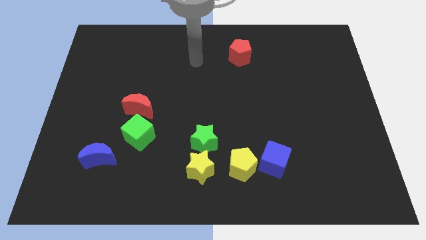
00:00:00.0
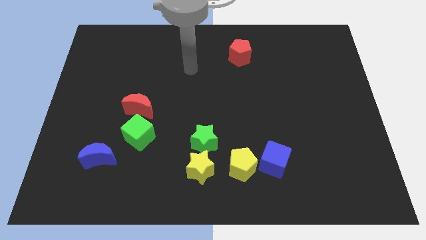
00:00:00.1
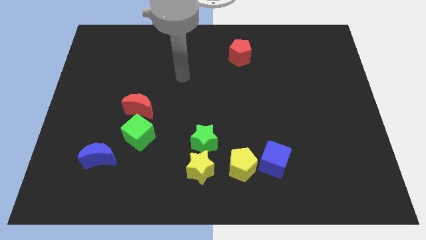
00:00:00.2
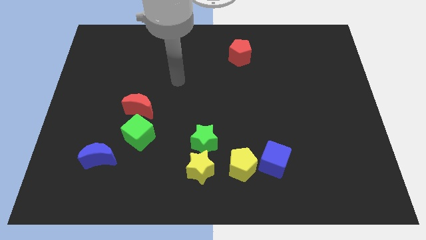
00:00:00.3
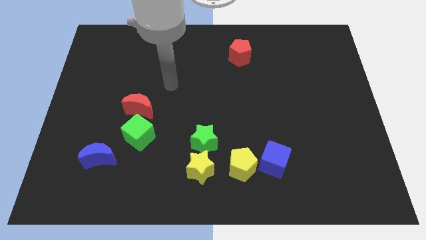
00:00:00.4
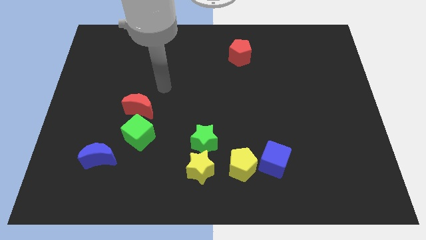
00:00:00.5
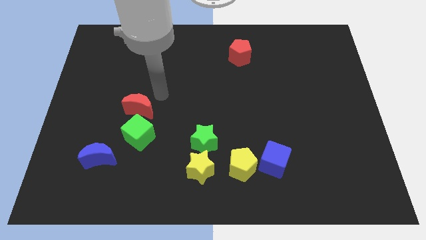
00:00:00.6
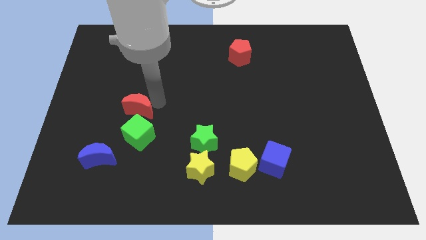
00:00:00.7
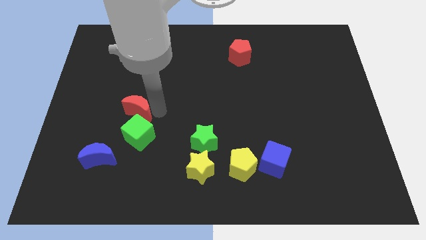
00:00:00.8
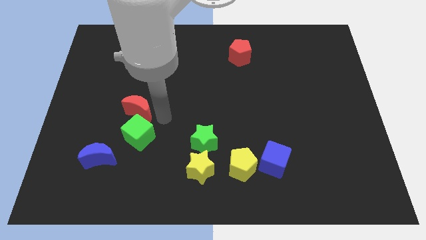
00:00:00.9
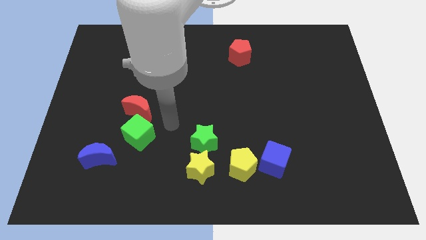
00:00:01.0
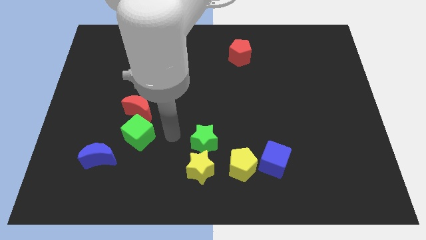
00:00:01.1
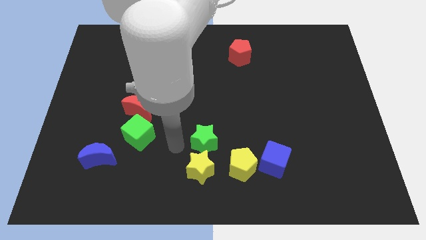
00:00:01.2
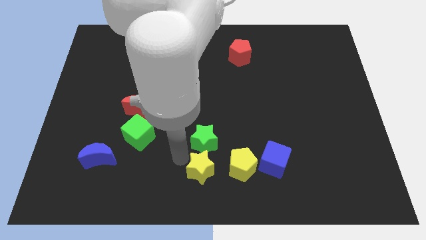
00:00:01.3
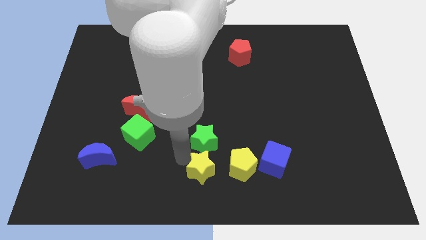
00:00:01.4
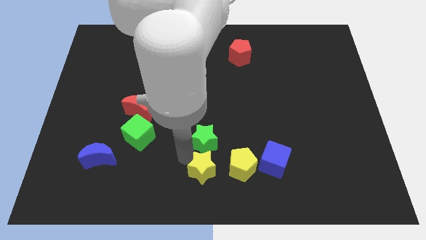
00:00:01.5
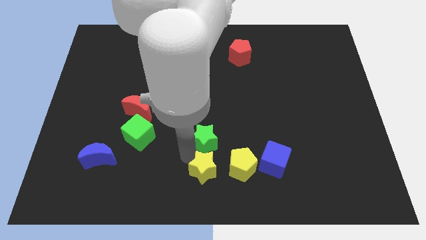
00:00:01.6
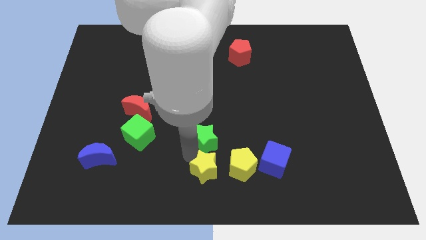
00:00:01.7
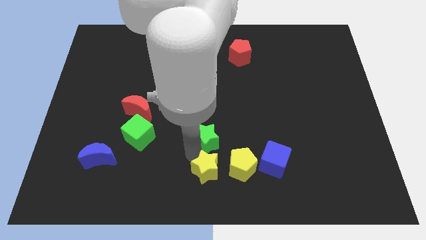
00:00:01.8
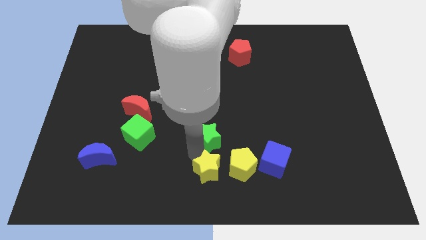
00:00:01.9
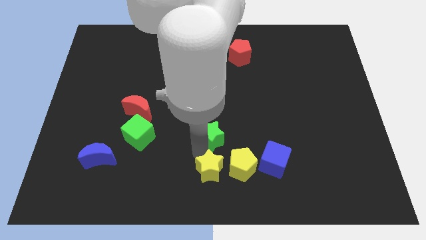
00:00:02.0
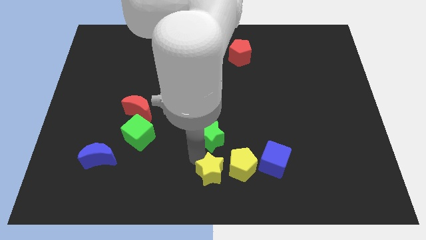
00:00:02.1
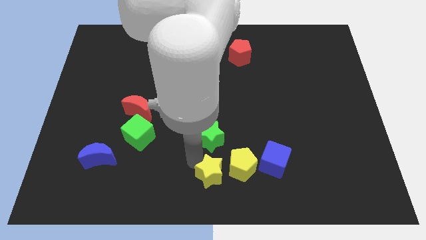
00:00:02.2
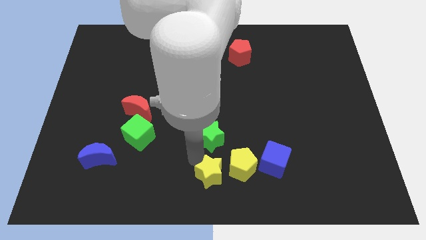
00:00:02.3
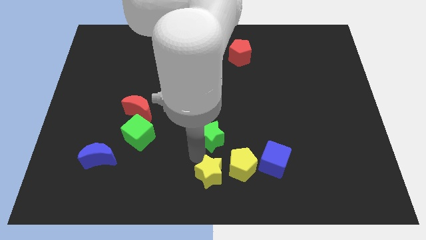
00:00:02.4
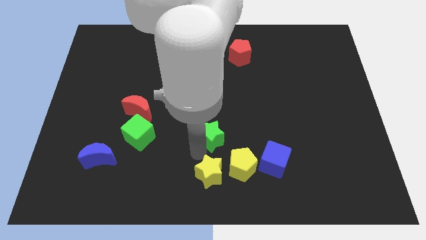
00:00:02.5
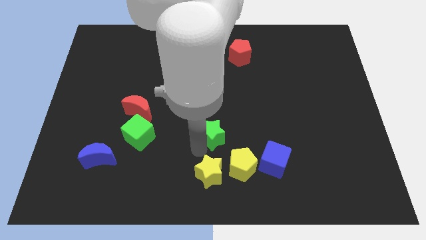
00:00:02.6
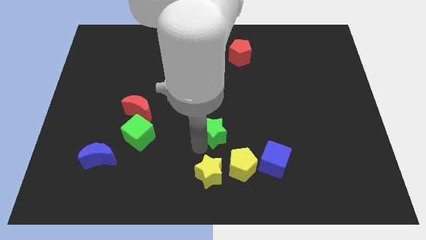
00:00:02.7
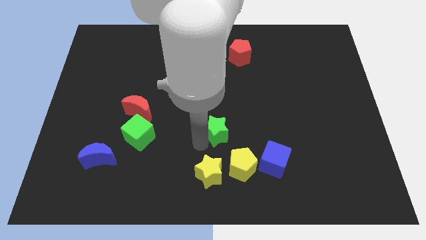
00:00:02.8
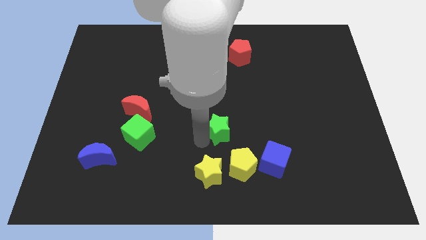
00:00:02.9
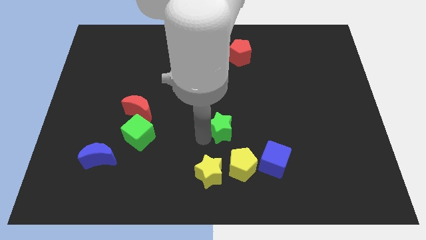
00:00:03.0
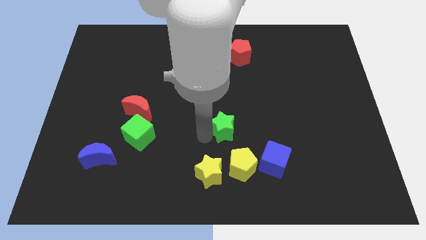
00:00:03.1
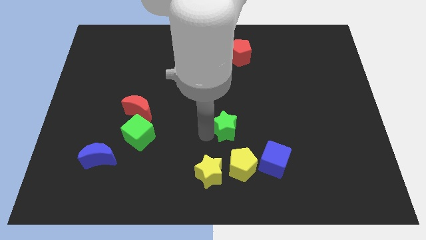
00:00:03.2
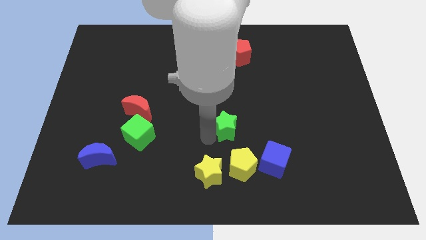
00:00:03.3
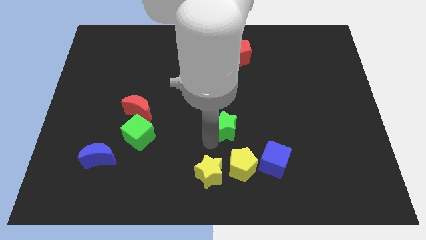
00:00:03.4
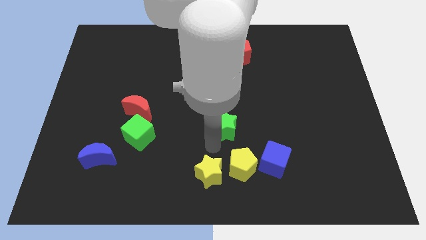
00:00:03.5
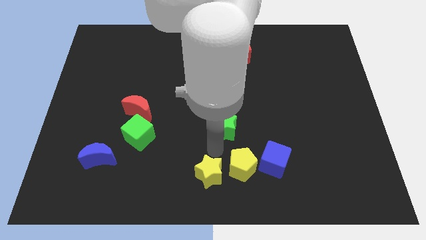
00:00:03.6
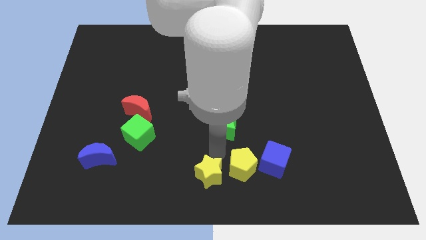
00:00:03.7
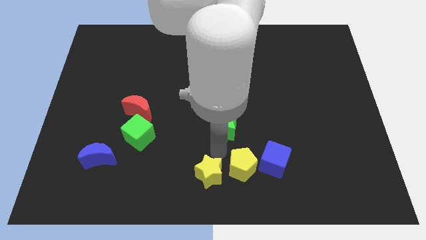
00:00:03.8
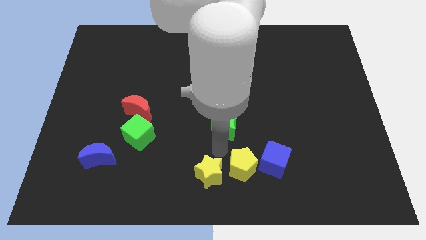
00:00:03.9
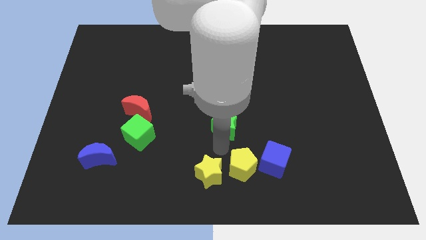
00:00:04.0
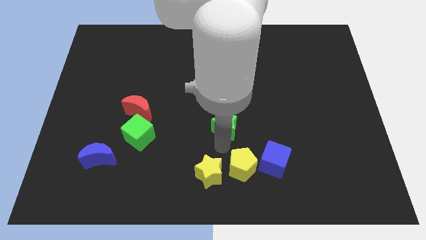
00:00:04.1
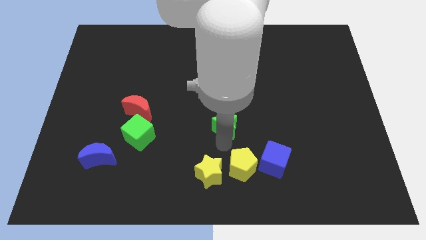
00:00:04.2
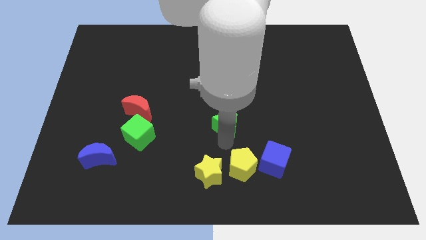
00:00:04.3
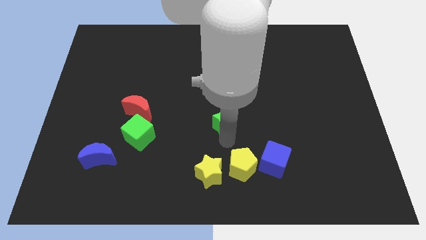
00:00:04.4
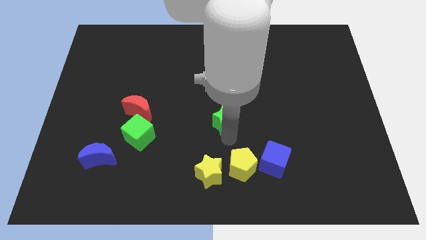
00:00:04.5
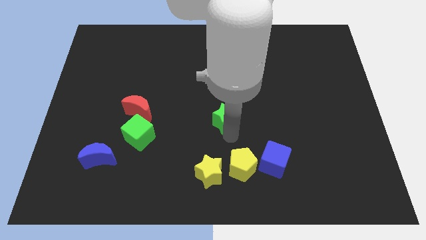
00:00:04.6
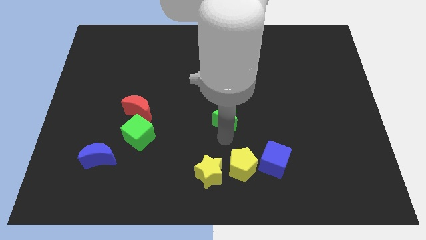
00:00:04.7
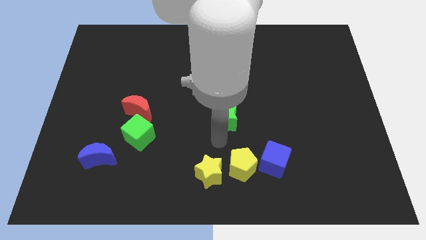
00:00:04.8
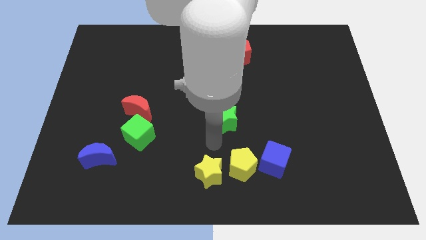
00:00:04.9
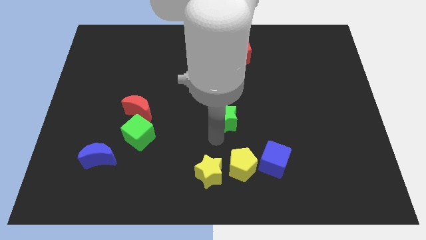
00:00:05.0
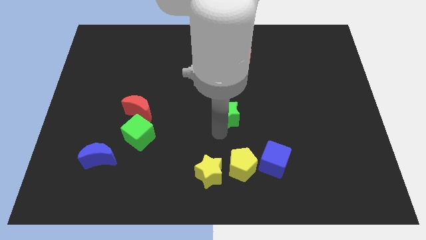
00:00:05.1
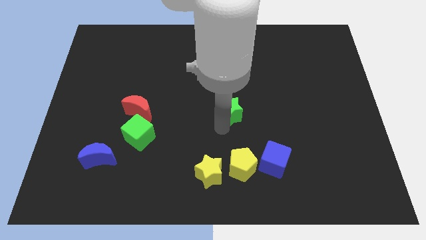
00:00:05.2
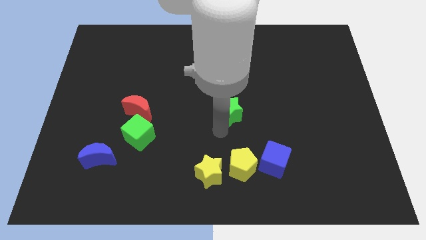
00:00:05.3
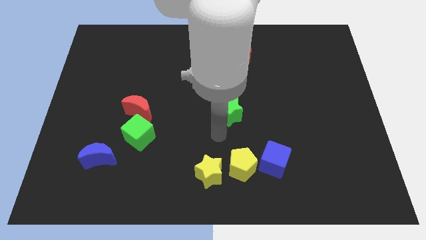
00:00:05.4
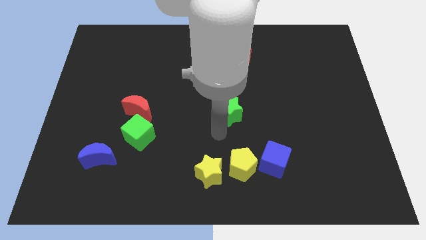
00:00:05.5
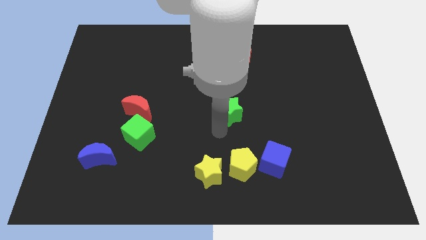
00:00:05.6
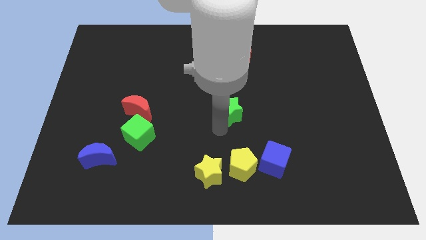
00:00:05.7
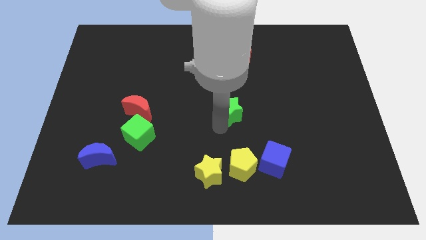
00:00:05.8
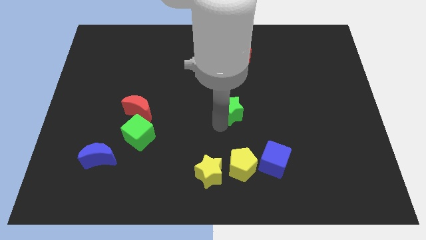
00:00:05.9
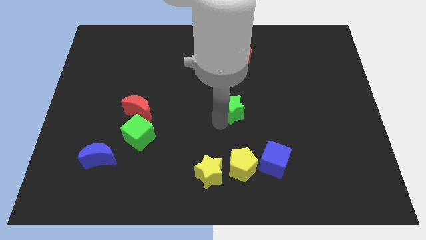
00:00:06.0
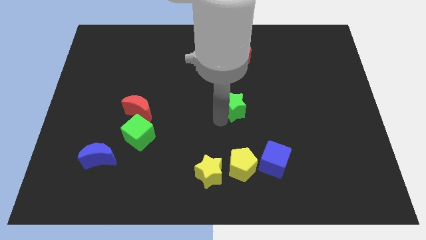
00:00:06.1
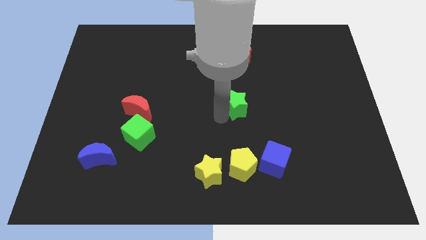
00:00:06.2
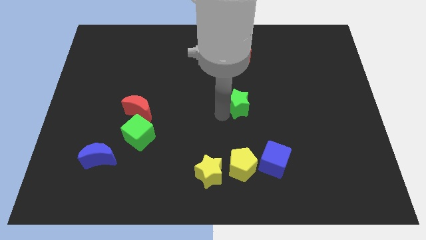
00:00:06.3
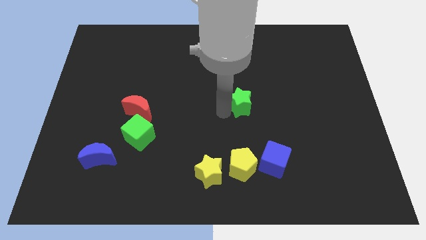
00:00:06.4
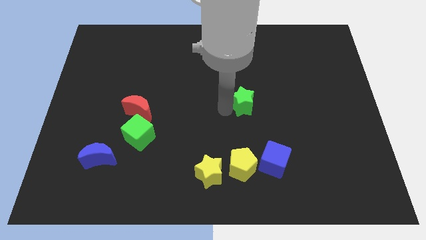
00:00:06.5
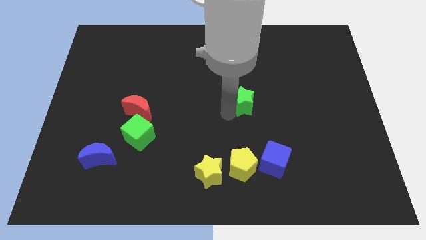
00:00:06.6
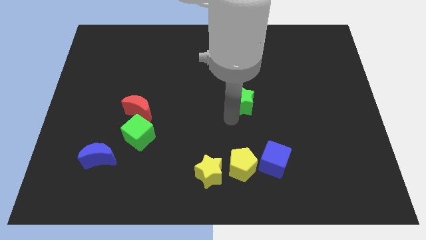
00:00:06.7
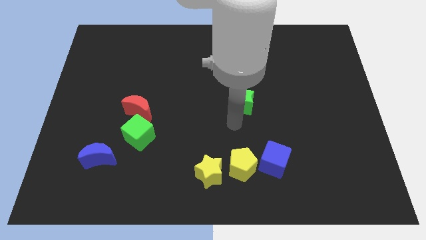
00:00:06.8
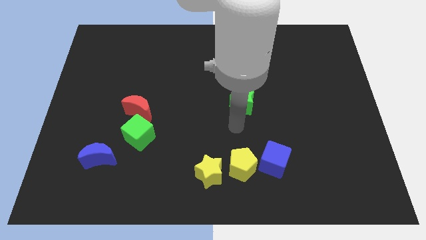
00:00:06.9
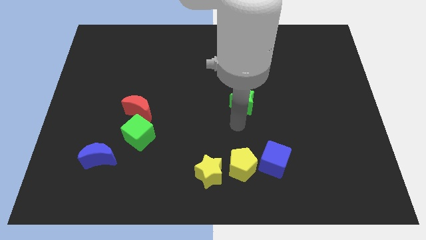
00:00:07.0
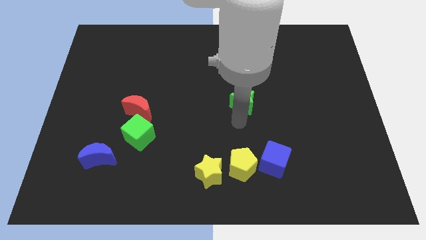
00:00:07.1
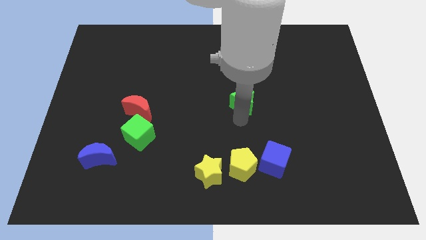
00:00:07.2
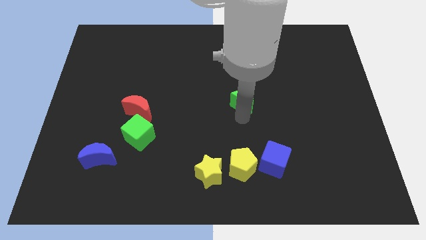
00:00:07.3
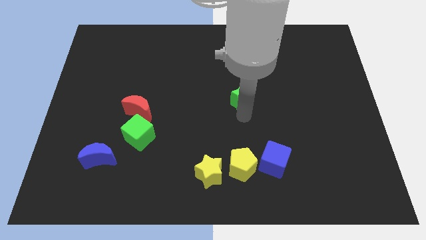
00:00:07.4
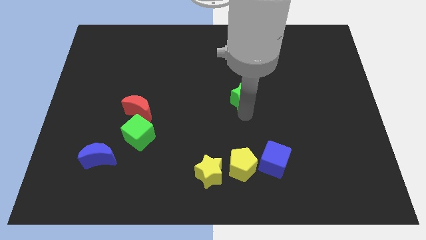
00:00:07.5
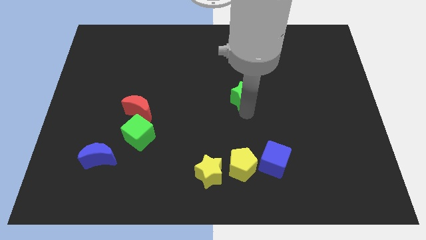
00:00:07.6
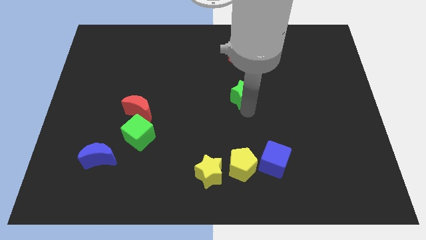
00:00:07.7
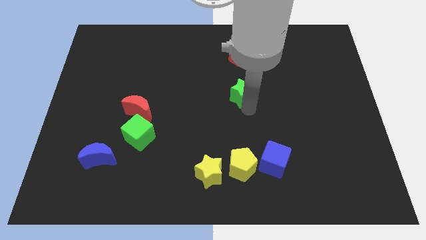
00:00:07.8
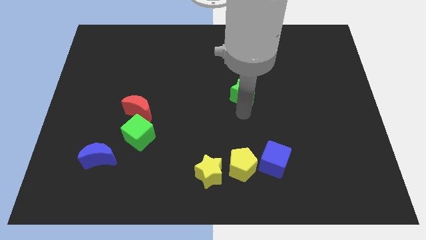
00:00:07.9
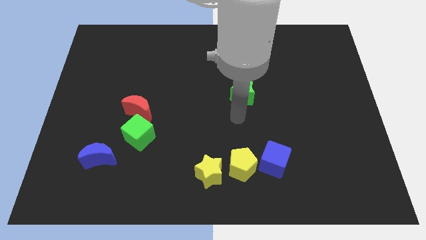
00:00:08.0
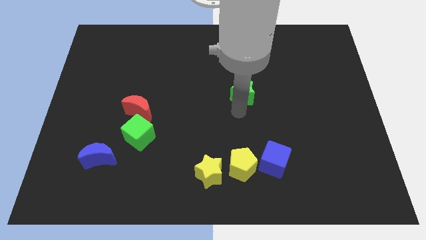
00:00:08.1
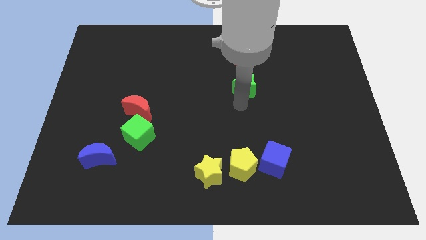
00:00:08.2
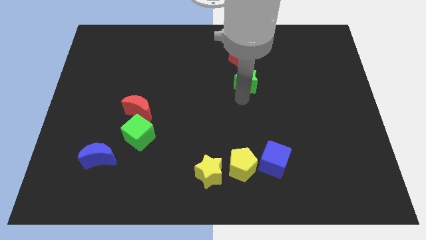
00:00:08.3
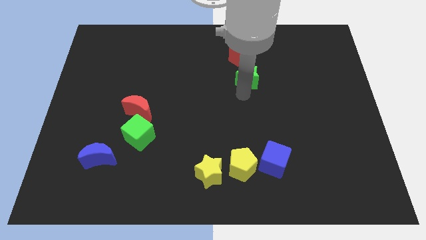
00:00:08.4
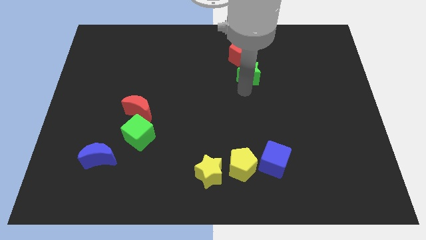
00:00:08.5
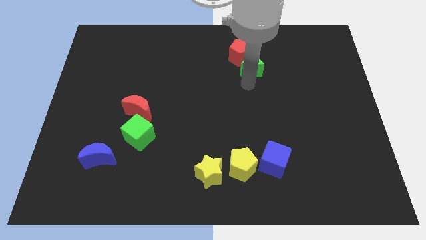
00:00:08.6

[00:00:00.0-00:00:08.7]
push the green star close to the red pentagon
